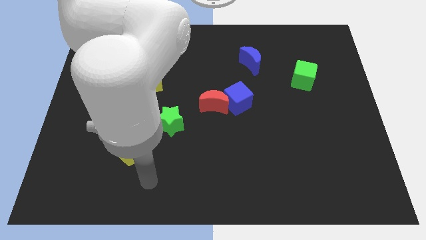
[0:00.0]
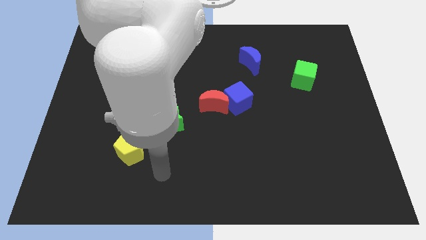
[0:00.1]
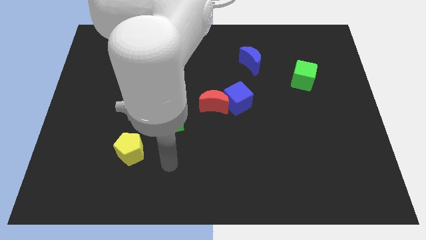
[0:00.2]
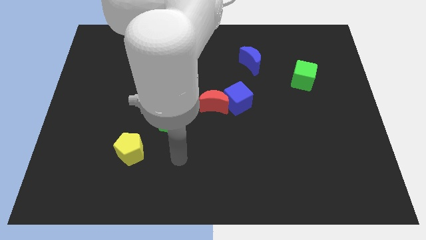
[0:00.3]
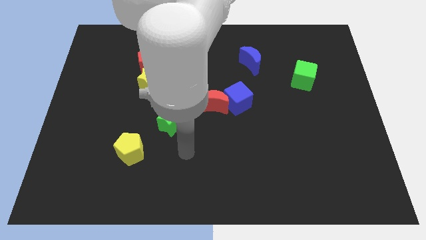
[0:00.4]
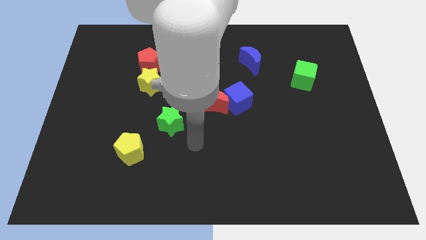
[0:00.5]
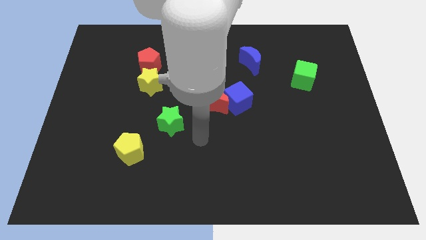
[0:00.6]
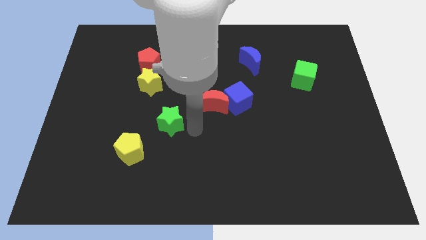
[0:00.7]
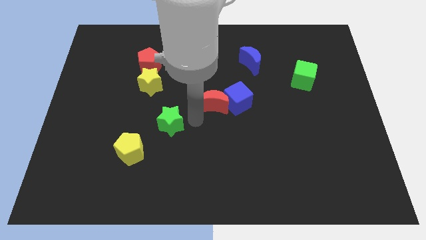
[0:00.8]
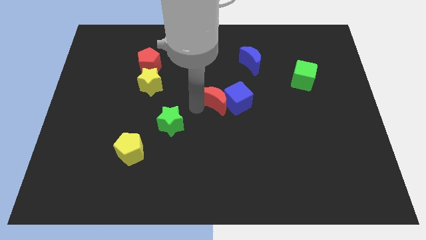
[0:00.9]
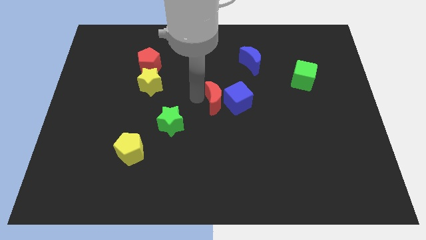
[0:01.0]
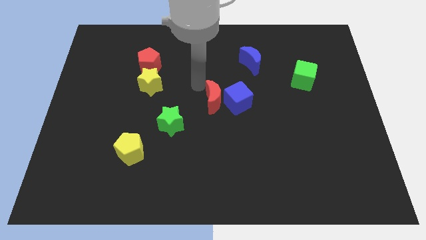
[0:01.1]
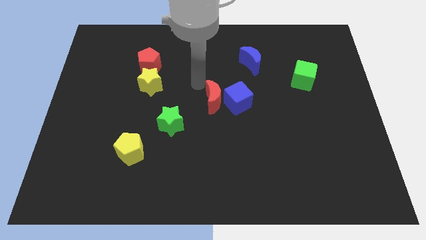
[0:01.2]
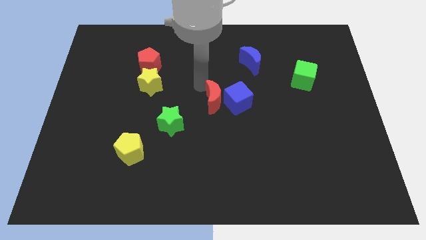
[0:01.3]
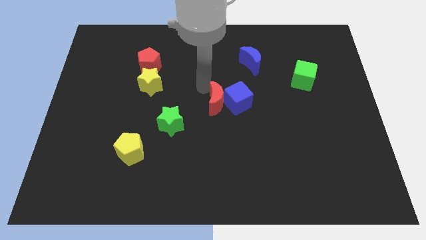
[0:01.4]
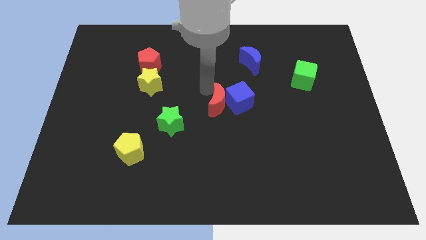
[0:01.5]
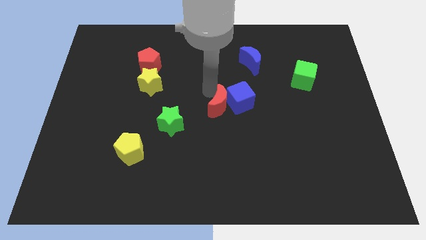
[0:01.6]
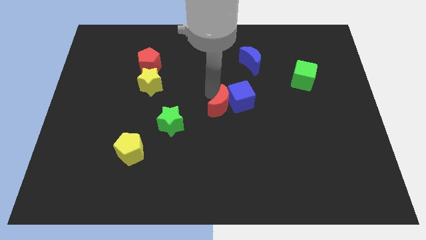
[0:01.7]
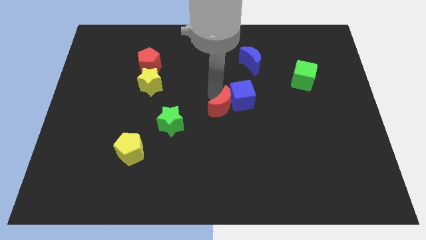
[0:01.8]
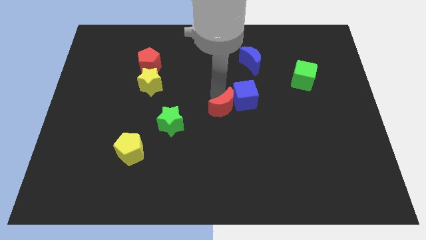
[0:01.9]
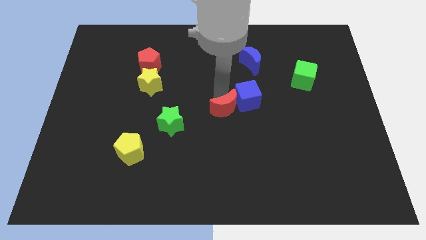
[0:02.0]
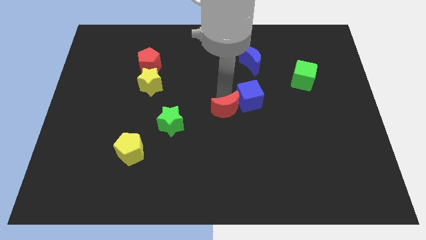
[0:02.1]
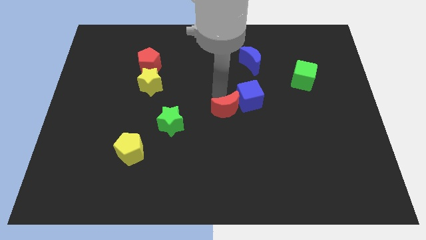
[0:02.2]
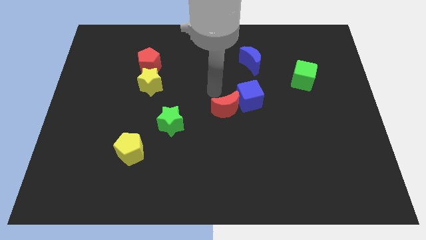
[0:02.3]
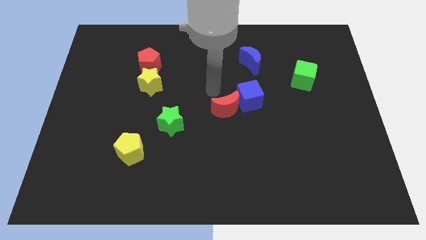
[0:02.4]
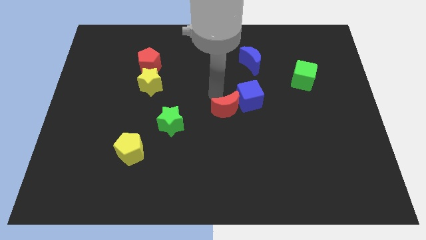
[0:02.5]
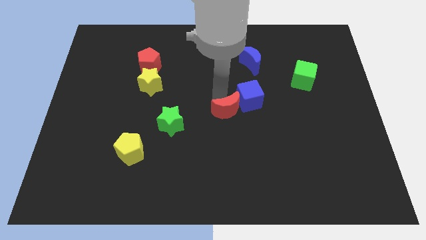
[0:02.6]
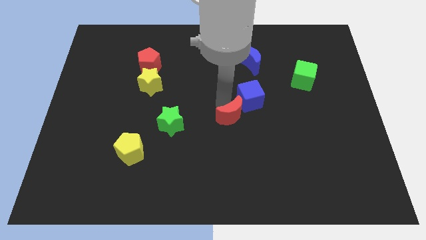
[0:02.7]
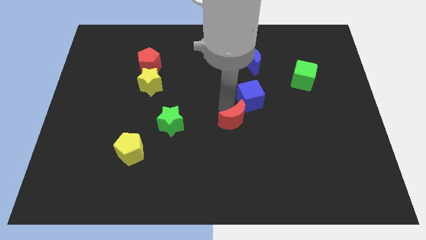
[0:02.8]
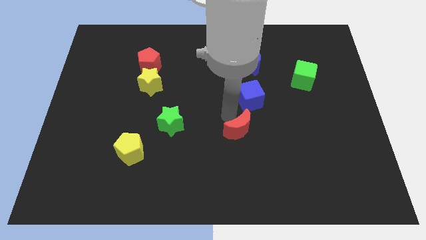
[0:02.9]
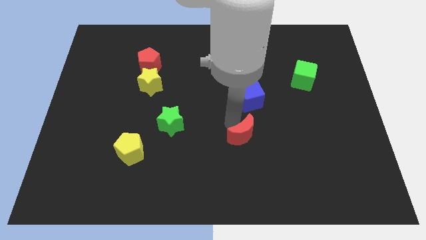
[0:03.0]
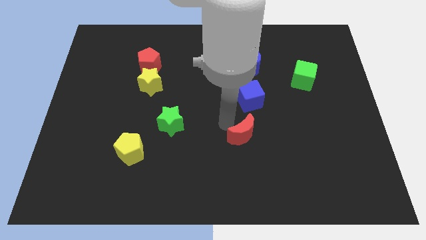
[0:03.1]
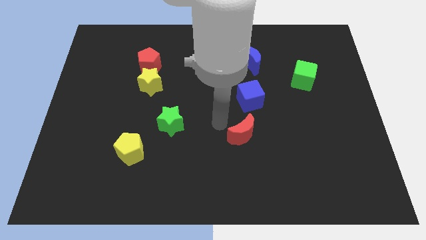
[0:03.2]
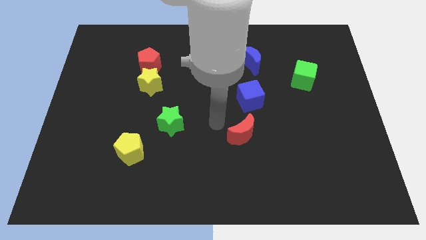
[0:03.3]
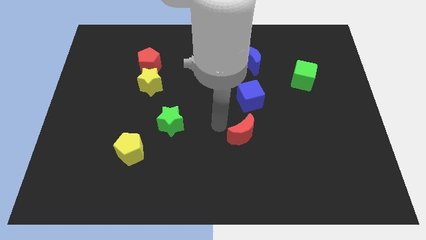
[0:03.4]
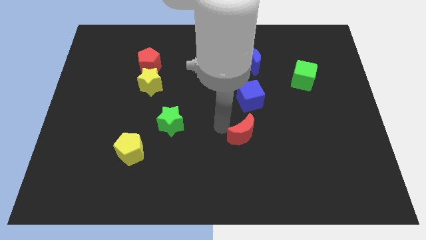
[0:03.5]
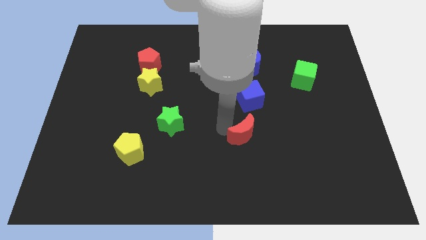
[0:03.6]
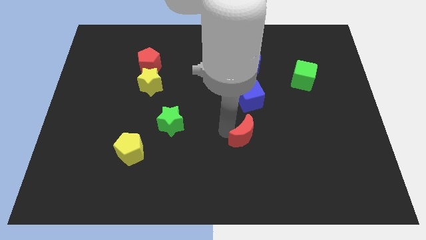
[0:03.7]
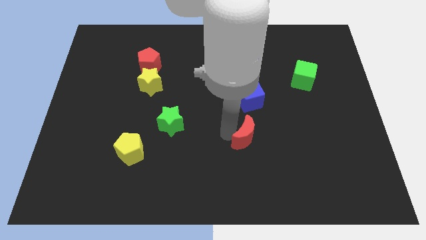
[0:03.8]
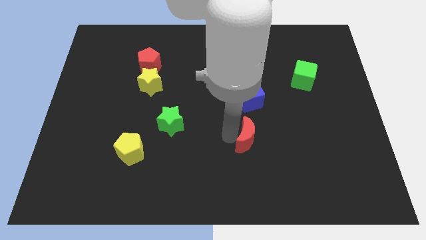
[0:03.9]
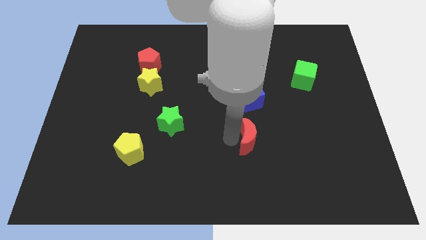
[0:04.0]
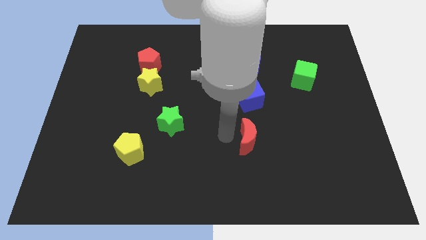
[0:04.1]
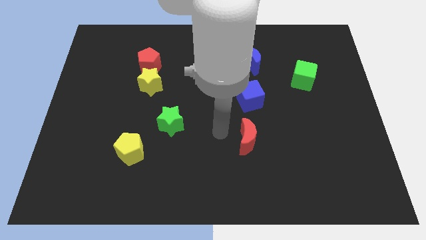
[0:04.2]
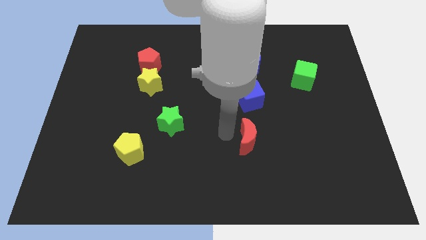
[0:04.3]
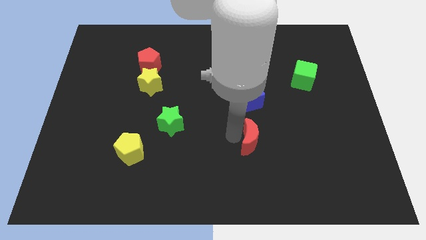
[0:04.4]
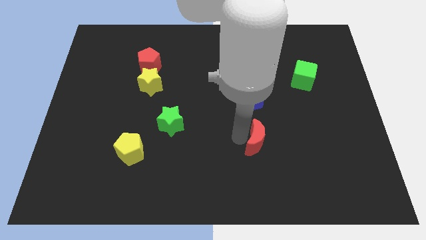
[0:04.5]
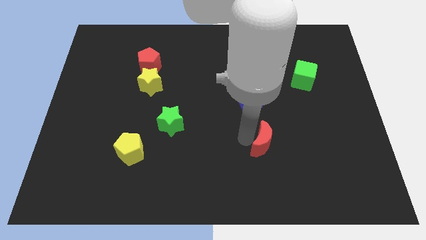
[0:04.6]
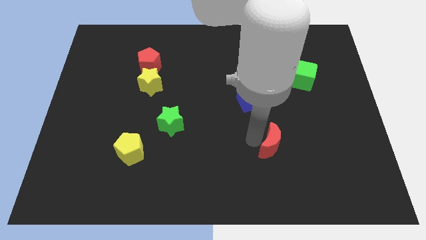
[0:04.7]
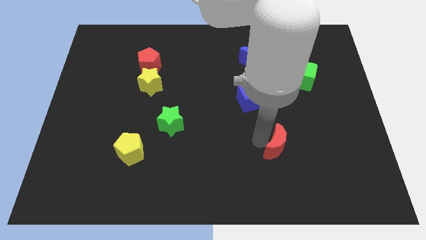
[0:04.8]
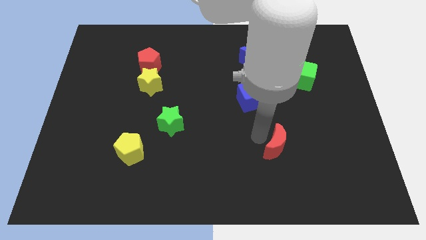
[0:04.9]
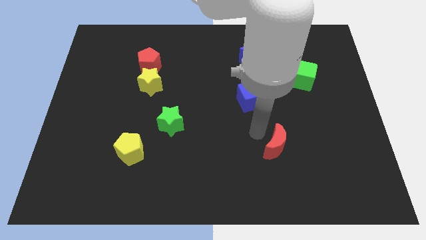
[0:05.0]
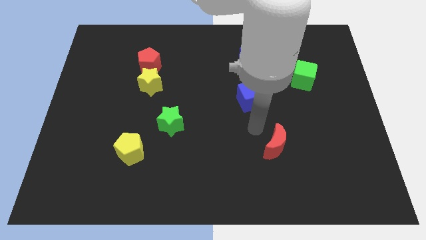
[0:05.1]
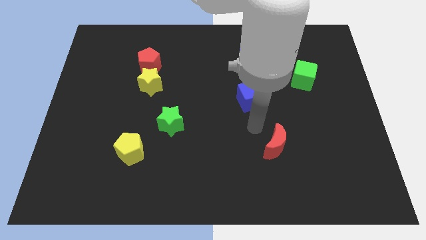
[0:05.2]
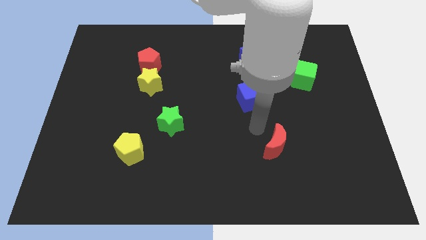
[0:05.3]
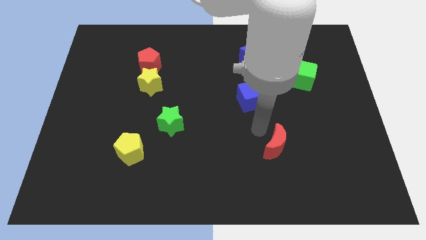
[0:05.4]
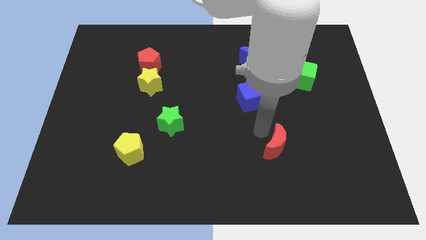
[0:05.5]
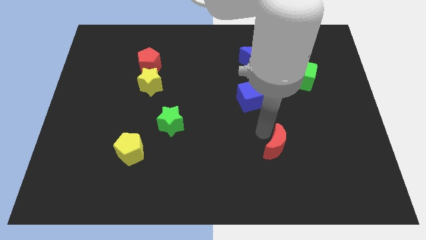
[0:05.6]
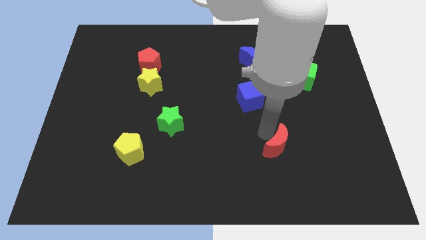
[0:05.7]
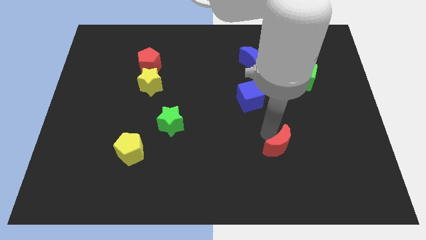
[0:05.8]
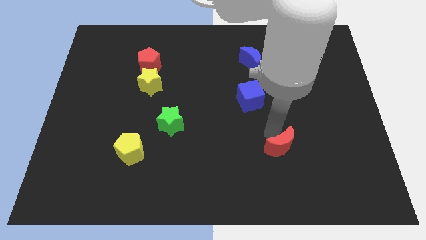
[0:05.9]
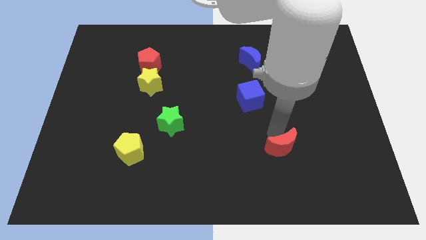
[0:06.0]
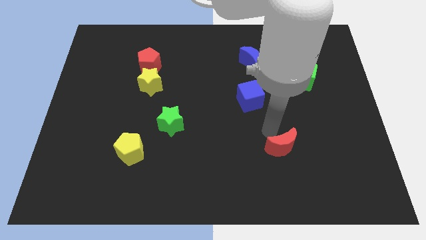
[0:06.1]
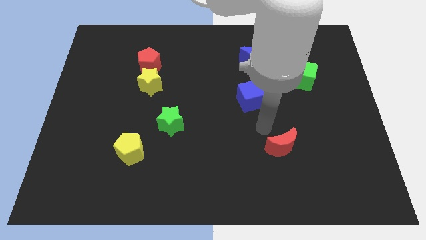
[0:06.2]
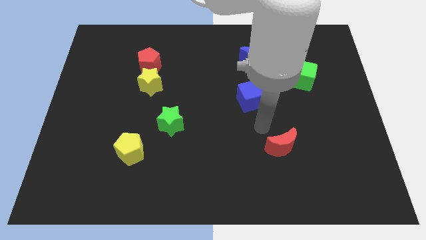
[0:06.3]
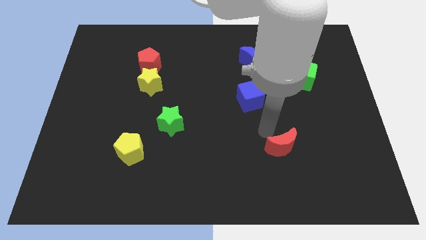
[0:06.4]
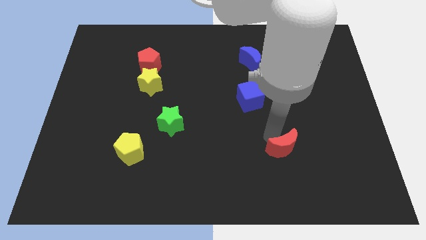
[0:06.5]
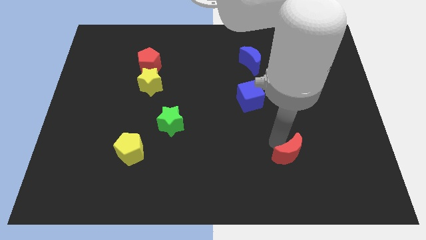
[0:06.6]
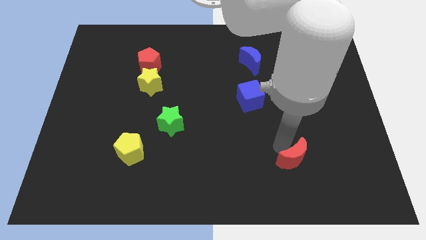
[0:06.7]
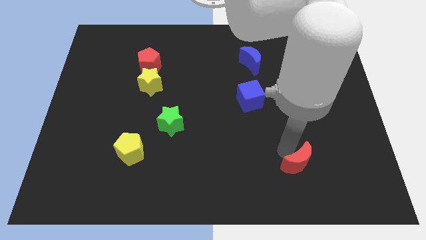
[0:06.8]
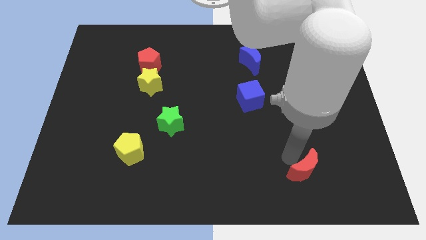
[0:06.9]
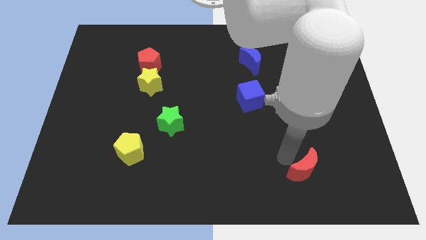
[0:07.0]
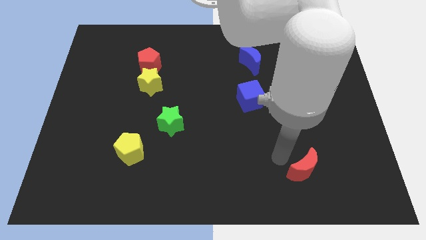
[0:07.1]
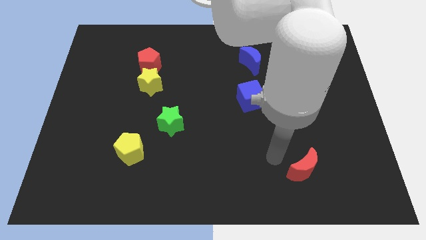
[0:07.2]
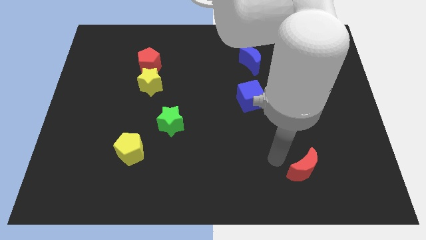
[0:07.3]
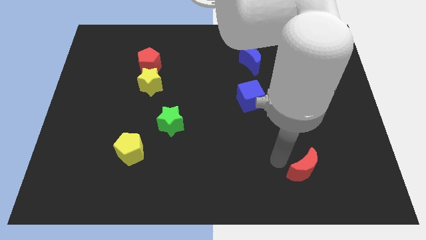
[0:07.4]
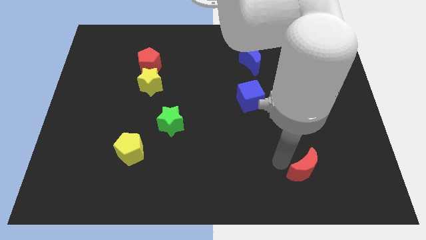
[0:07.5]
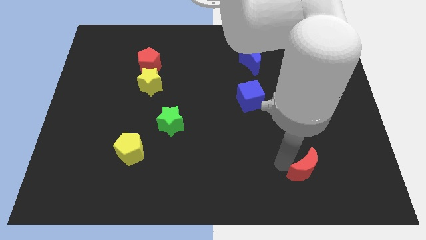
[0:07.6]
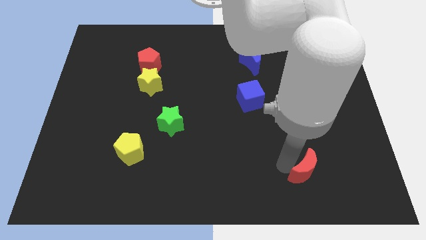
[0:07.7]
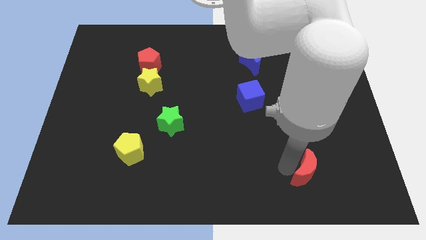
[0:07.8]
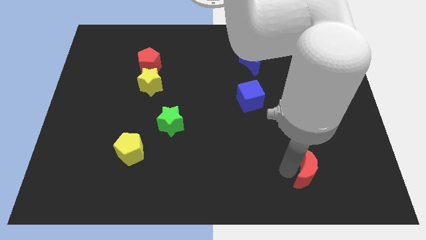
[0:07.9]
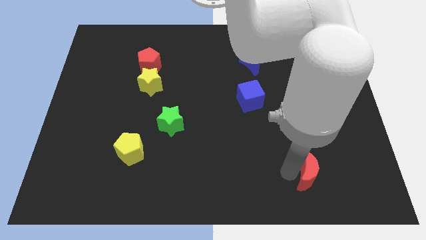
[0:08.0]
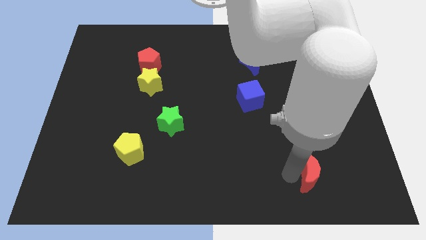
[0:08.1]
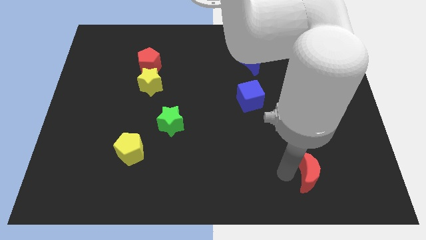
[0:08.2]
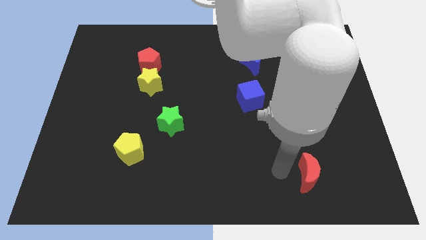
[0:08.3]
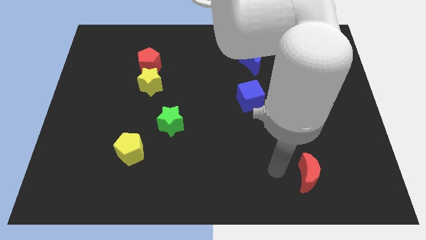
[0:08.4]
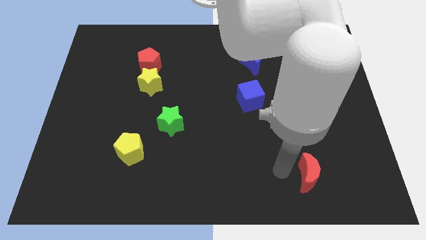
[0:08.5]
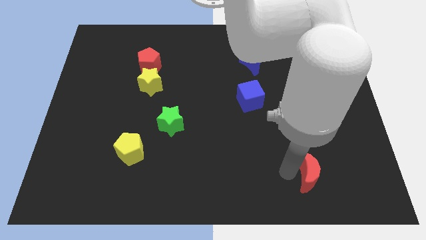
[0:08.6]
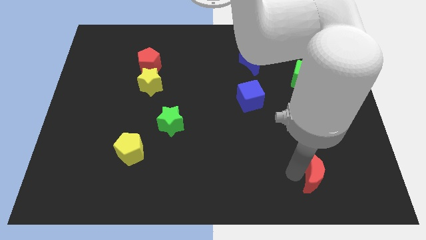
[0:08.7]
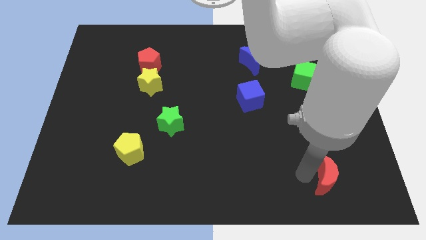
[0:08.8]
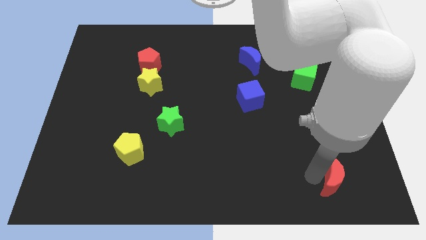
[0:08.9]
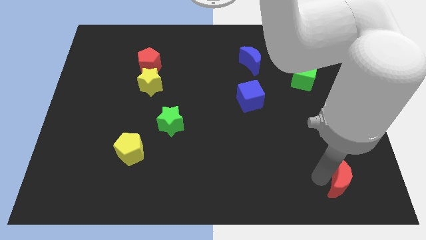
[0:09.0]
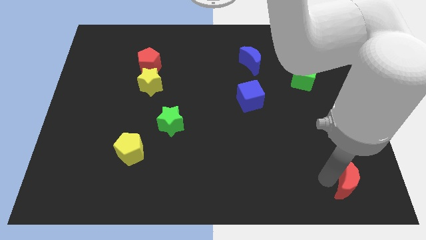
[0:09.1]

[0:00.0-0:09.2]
move the red moon to the bottom right
